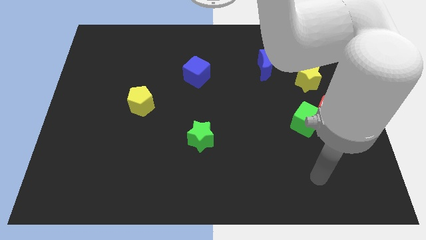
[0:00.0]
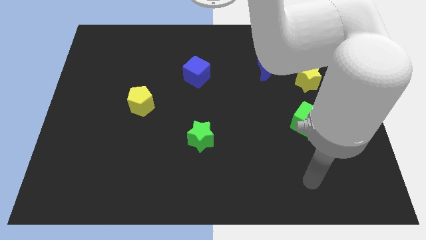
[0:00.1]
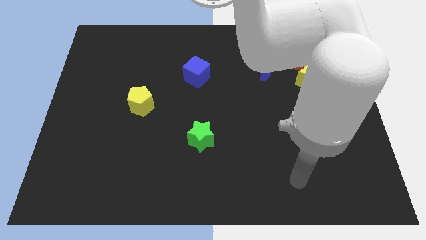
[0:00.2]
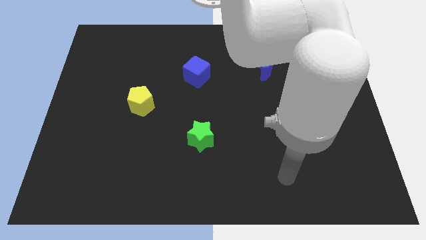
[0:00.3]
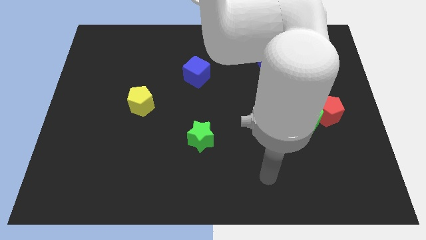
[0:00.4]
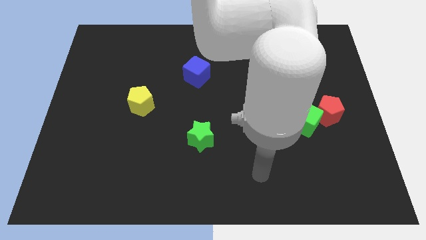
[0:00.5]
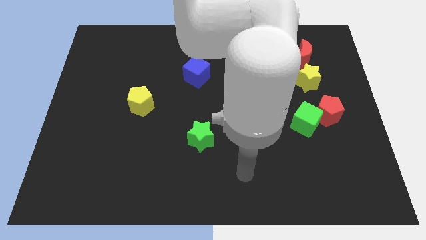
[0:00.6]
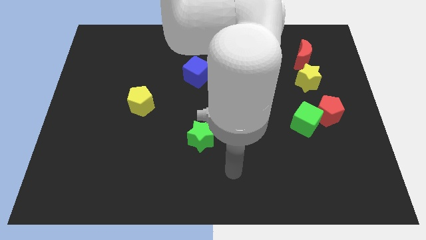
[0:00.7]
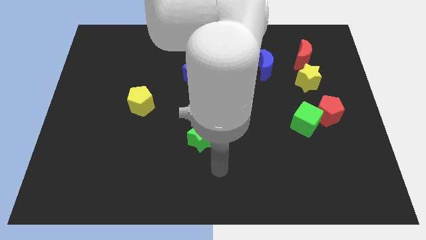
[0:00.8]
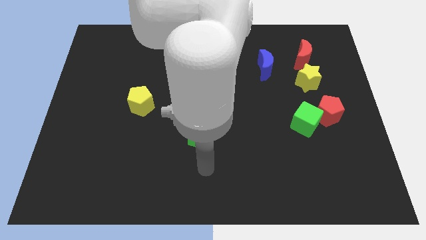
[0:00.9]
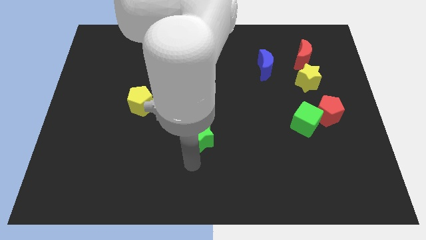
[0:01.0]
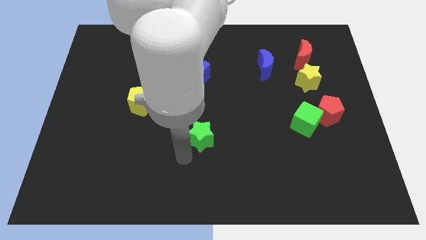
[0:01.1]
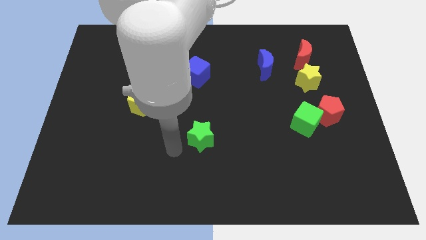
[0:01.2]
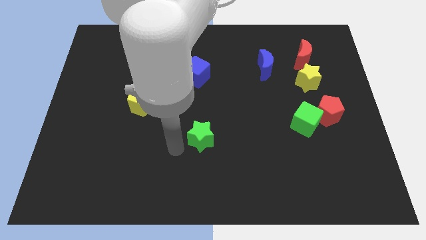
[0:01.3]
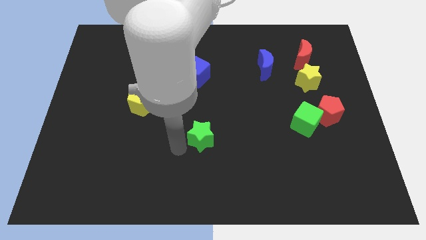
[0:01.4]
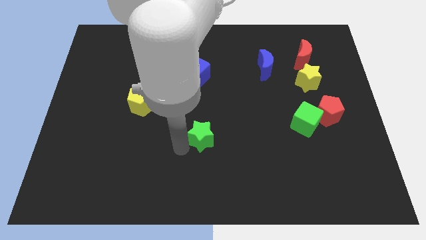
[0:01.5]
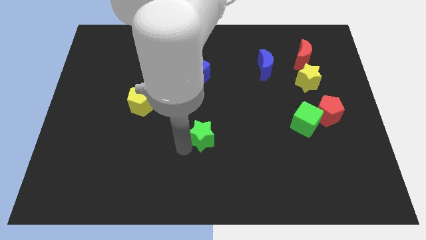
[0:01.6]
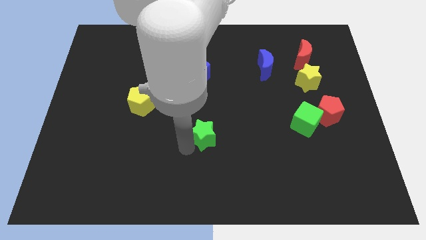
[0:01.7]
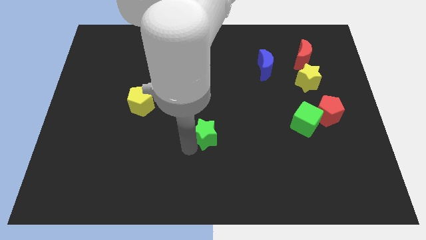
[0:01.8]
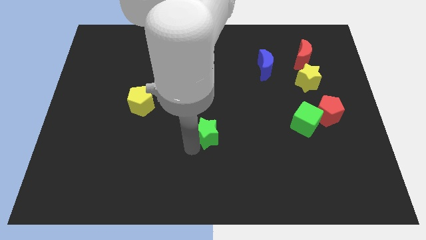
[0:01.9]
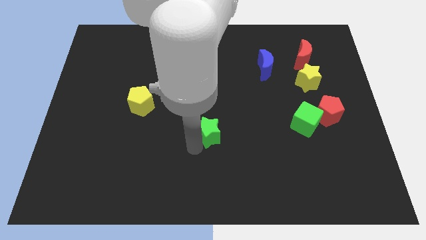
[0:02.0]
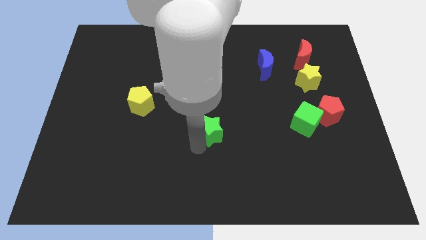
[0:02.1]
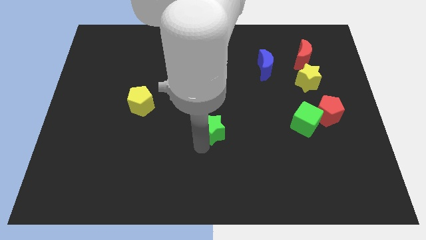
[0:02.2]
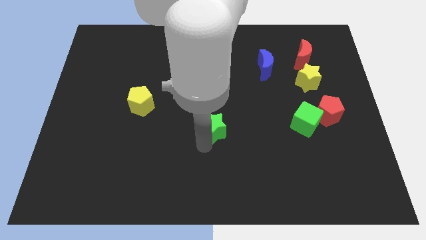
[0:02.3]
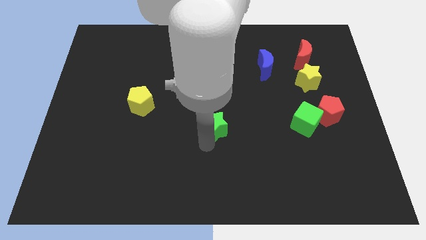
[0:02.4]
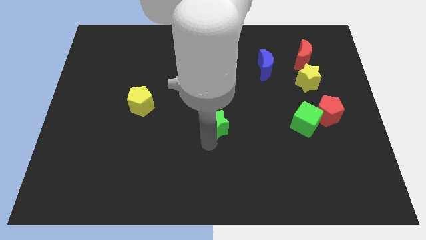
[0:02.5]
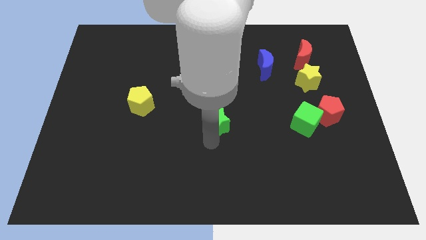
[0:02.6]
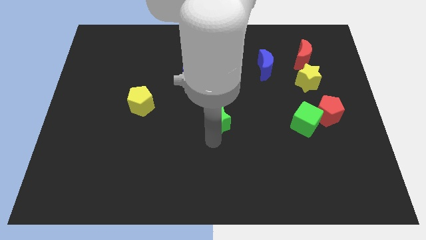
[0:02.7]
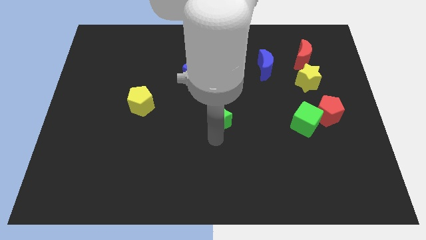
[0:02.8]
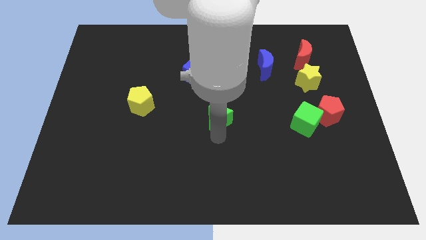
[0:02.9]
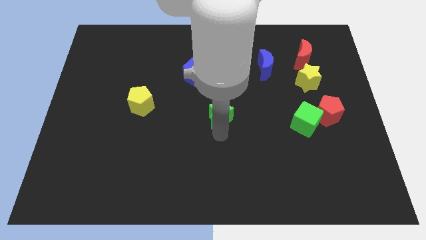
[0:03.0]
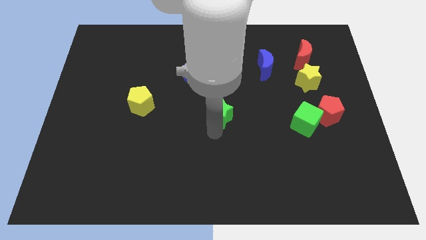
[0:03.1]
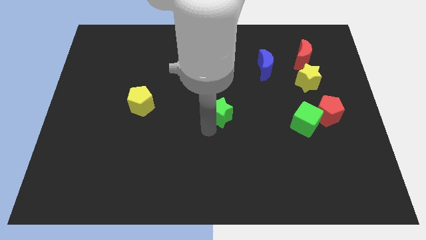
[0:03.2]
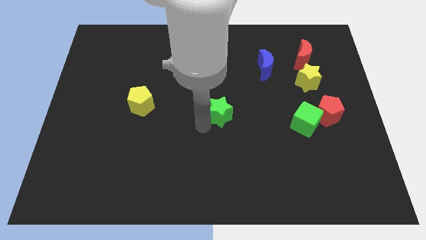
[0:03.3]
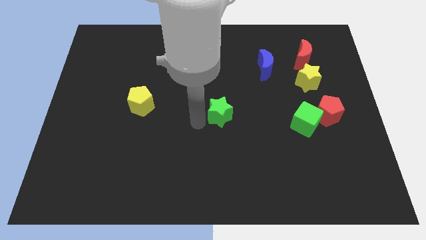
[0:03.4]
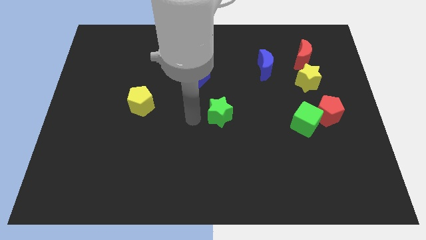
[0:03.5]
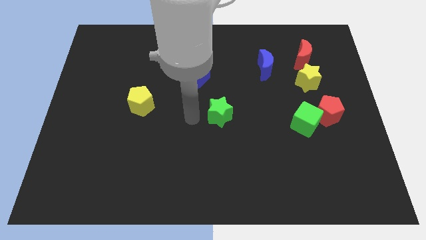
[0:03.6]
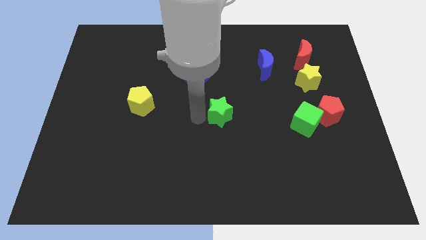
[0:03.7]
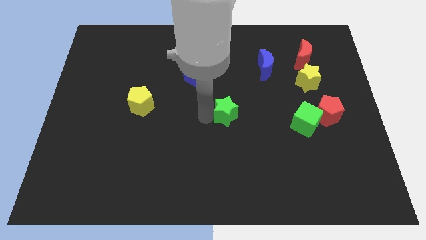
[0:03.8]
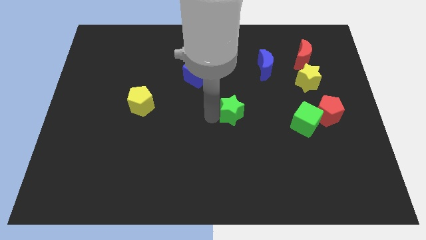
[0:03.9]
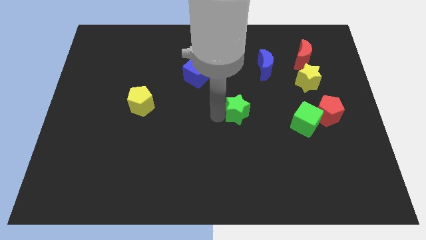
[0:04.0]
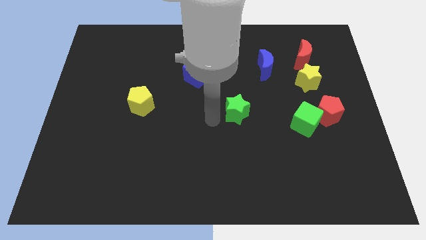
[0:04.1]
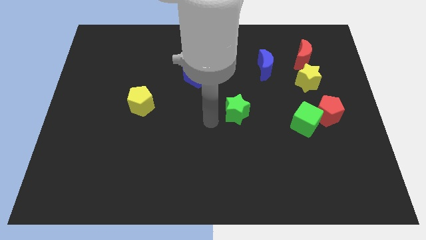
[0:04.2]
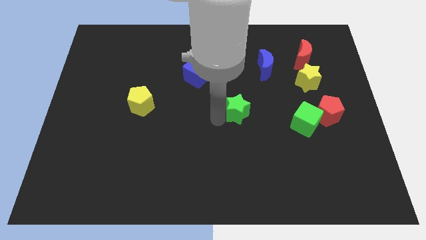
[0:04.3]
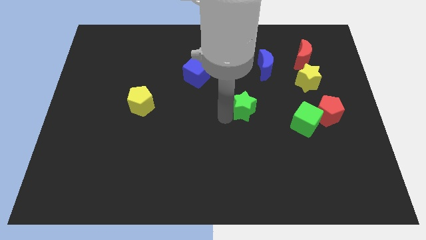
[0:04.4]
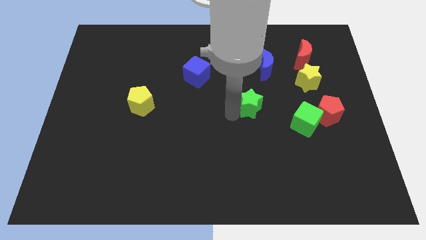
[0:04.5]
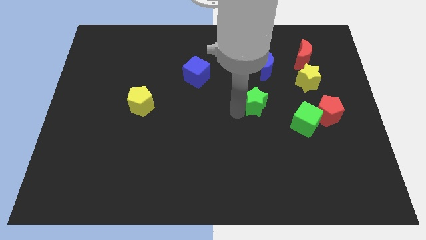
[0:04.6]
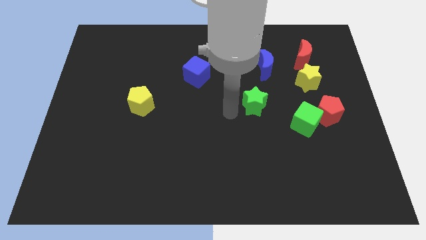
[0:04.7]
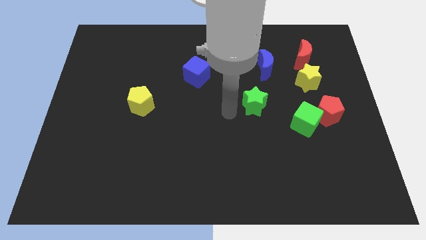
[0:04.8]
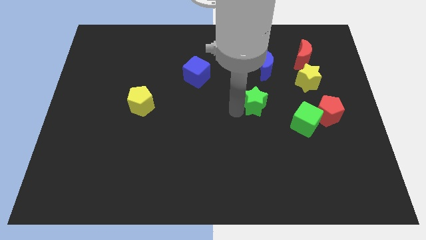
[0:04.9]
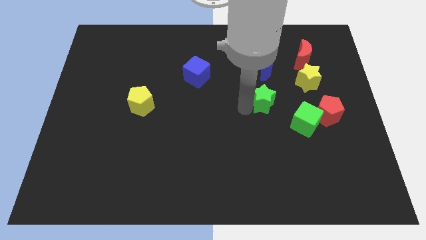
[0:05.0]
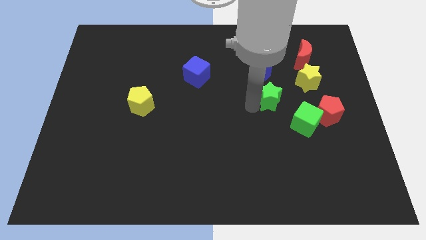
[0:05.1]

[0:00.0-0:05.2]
move the green star to the bottom left side of the yellow star

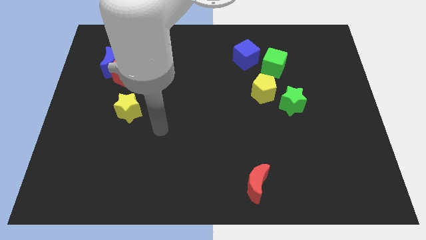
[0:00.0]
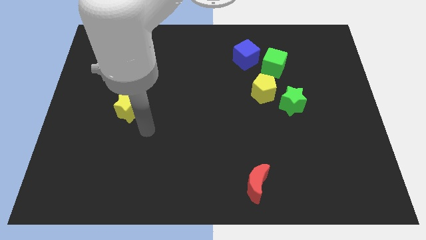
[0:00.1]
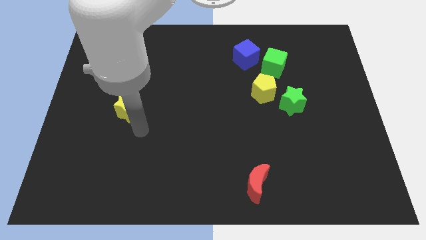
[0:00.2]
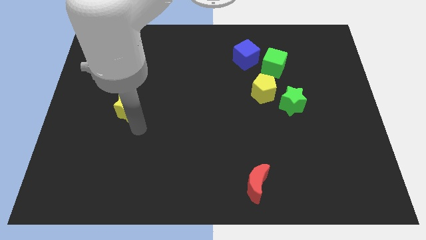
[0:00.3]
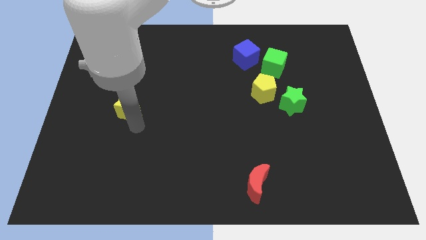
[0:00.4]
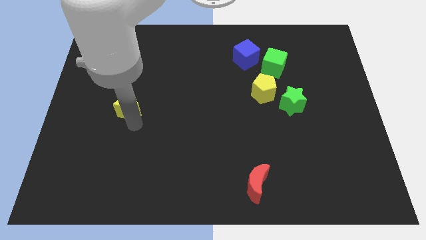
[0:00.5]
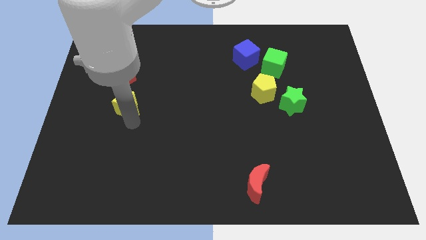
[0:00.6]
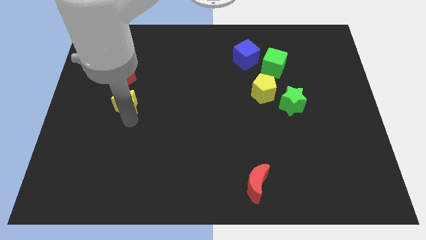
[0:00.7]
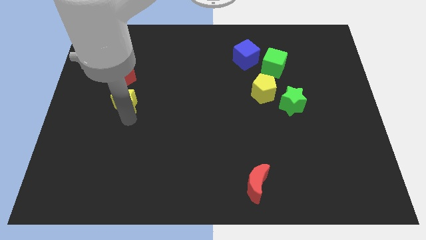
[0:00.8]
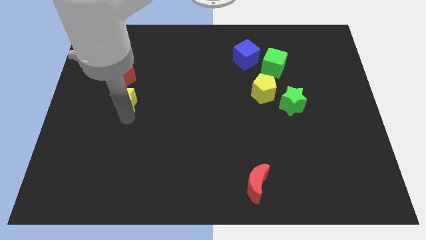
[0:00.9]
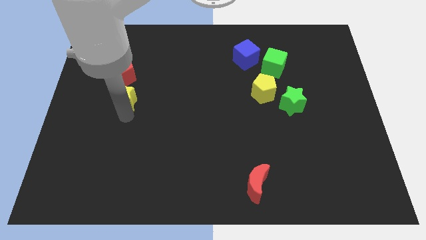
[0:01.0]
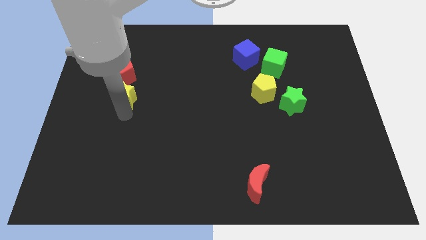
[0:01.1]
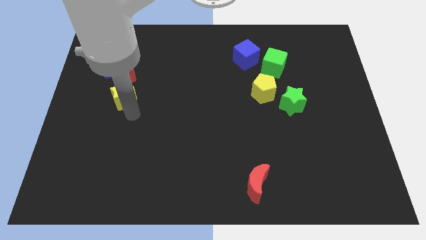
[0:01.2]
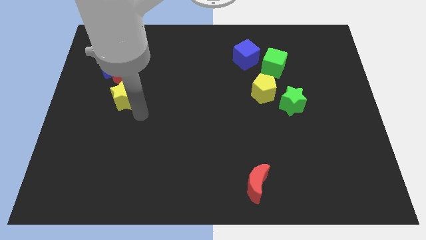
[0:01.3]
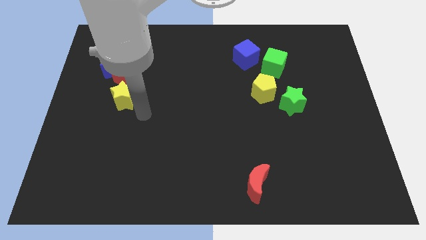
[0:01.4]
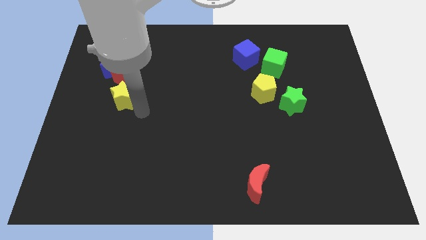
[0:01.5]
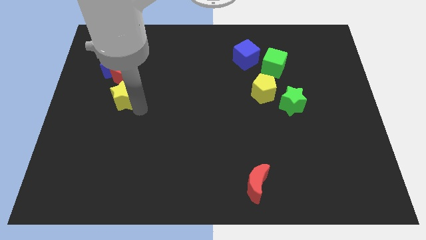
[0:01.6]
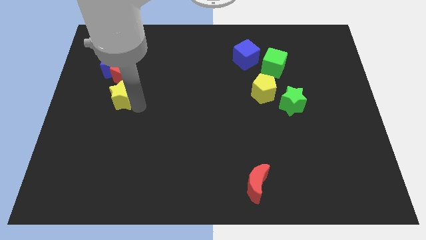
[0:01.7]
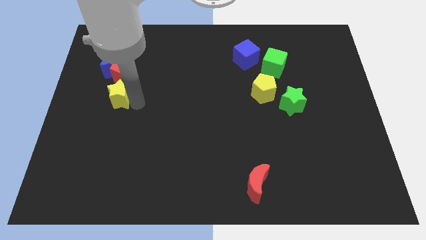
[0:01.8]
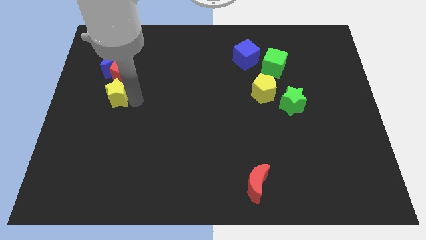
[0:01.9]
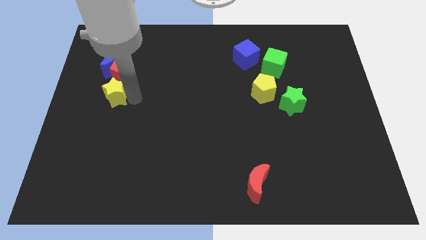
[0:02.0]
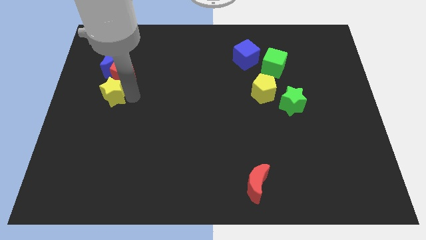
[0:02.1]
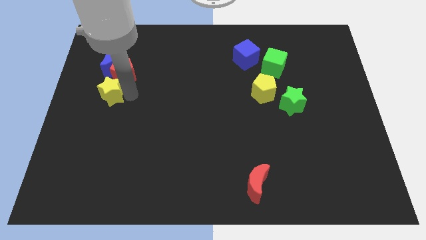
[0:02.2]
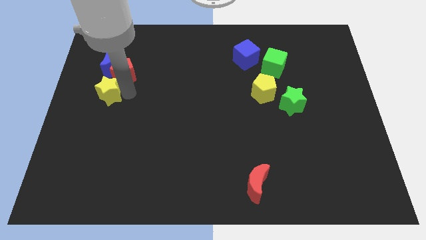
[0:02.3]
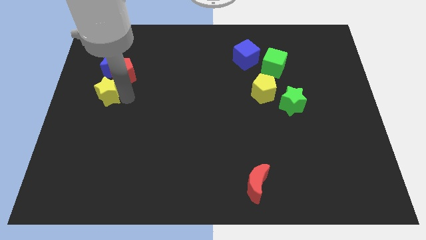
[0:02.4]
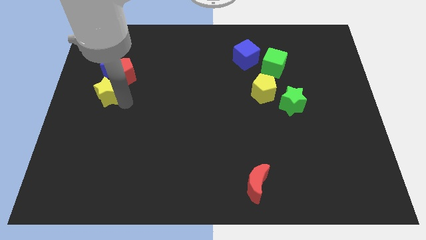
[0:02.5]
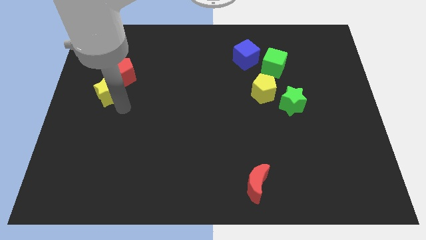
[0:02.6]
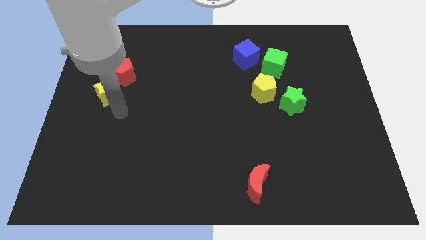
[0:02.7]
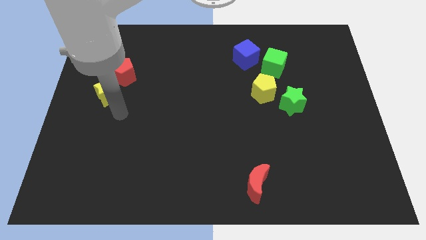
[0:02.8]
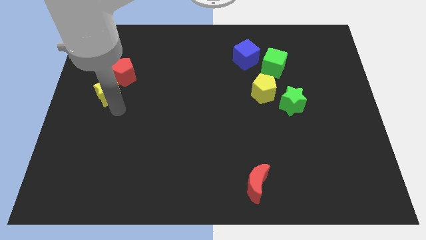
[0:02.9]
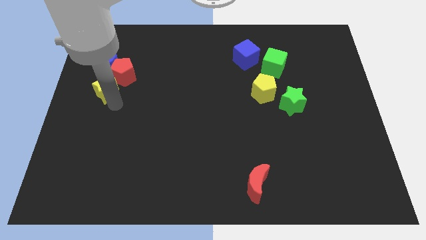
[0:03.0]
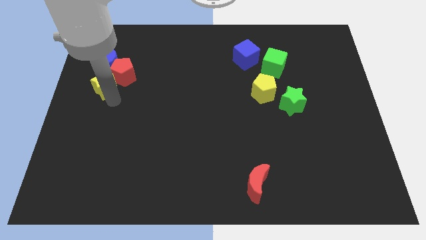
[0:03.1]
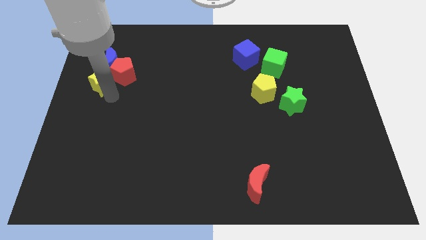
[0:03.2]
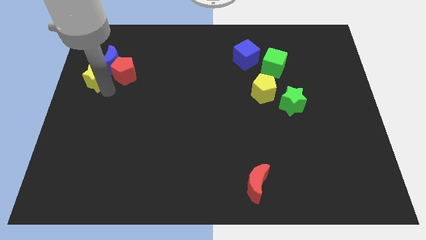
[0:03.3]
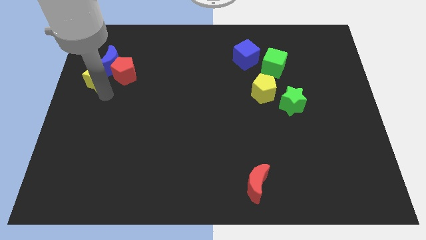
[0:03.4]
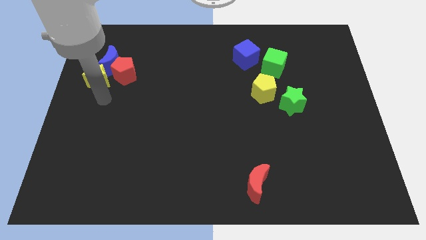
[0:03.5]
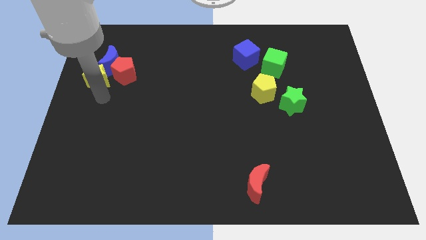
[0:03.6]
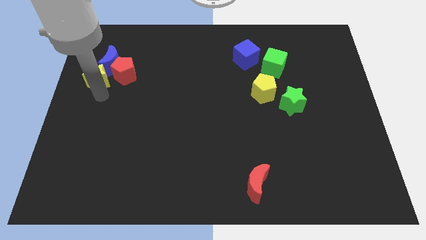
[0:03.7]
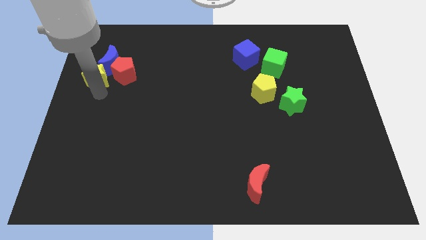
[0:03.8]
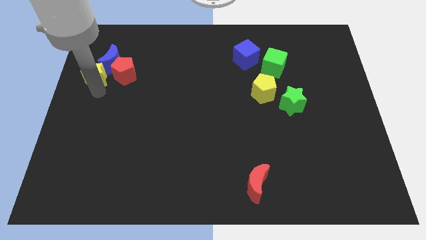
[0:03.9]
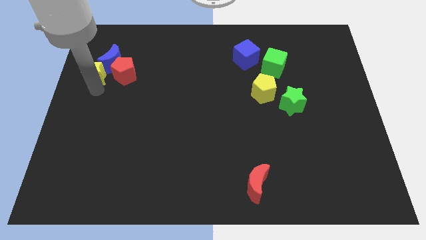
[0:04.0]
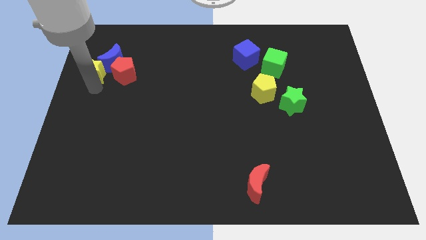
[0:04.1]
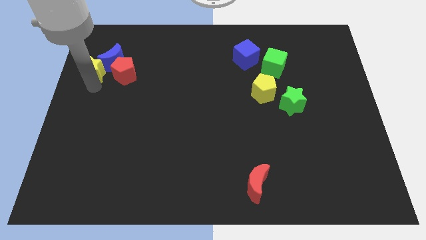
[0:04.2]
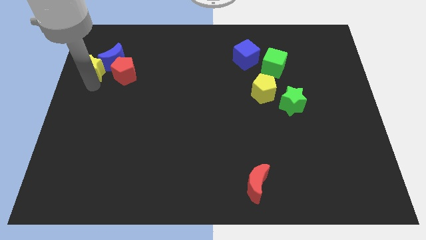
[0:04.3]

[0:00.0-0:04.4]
slide the yellow star diagonally up and to the left of the red pentagon
